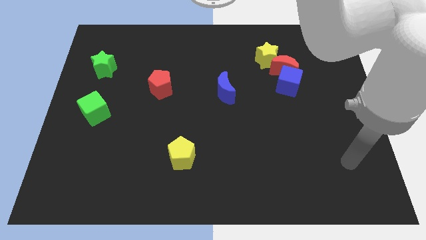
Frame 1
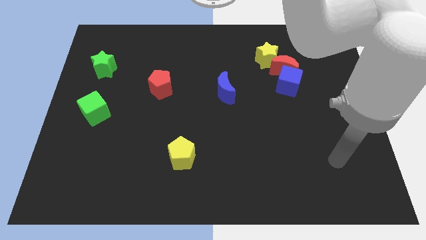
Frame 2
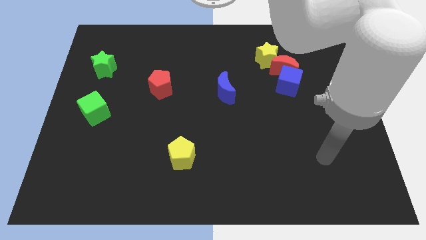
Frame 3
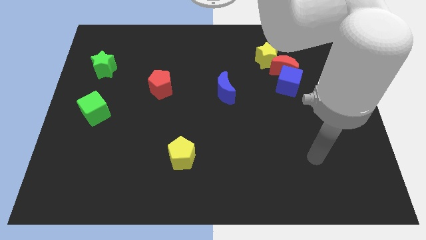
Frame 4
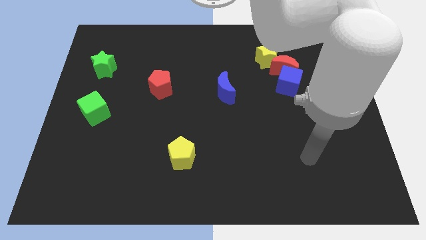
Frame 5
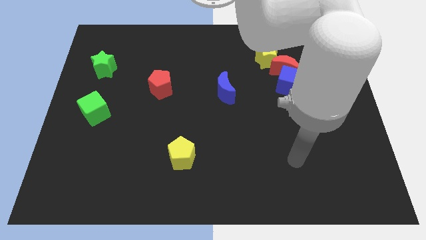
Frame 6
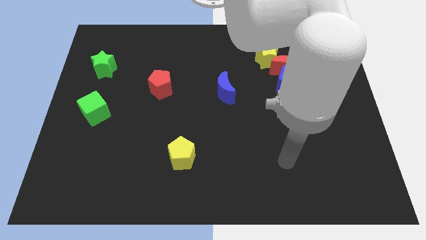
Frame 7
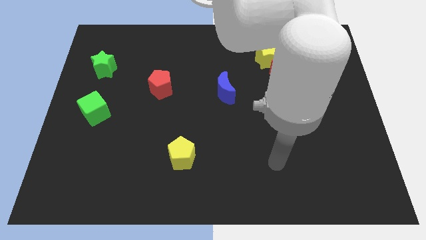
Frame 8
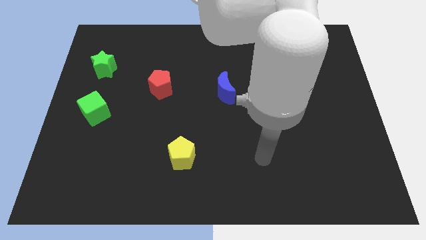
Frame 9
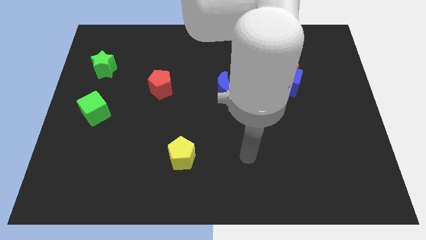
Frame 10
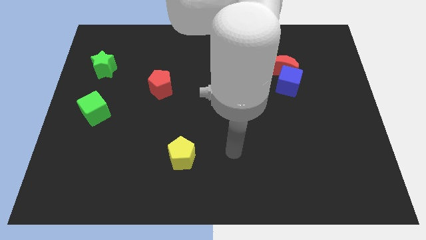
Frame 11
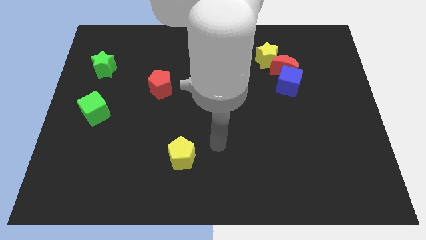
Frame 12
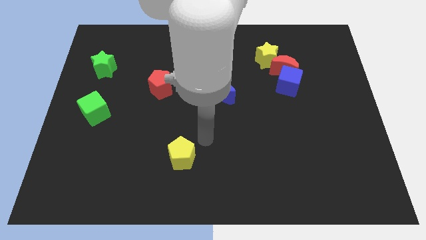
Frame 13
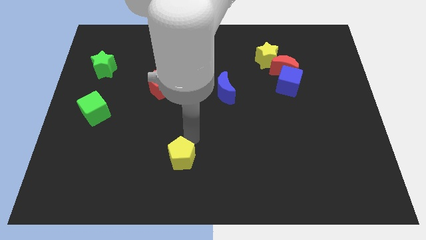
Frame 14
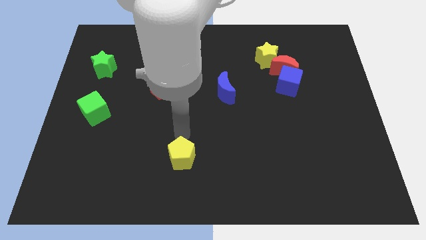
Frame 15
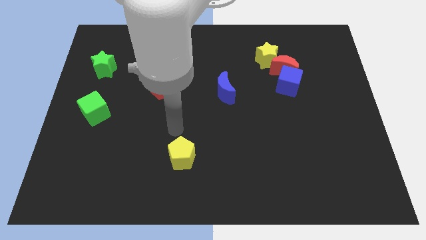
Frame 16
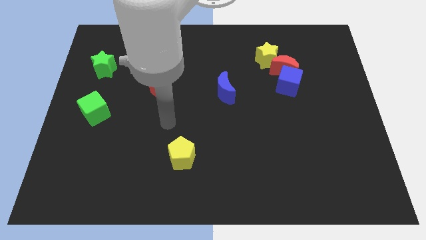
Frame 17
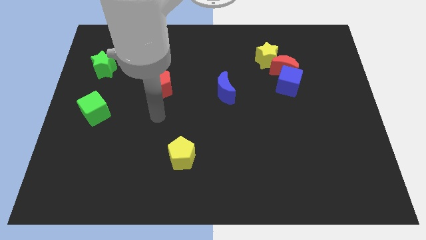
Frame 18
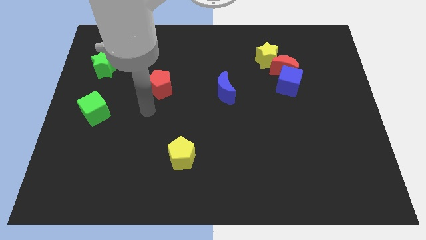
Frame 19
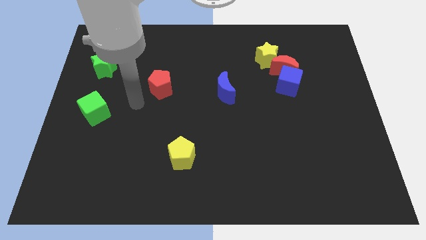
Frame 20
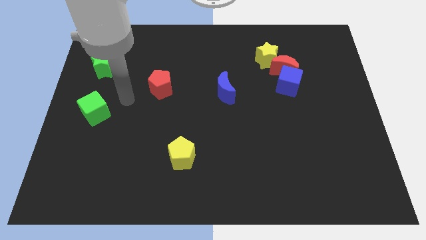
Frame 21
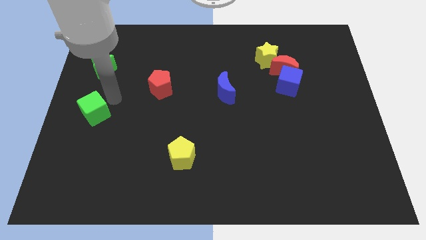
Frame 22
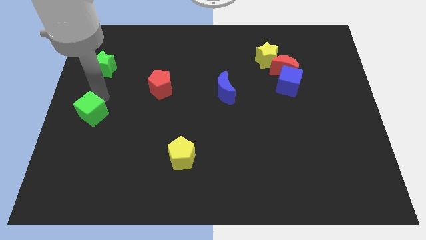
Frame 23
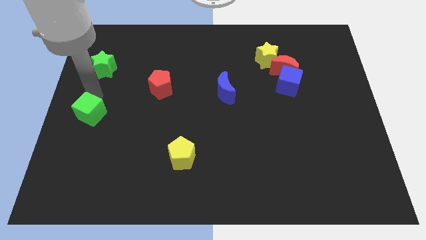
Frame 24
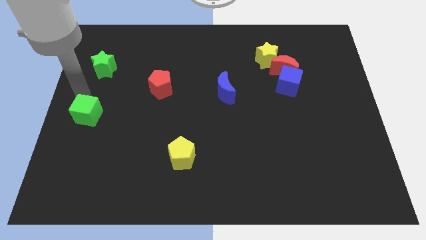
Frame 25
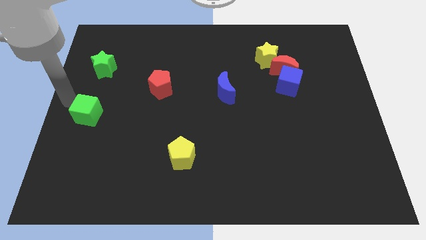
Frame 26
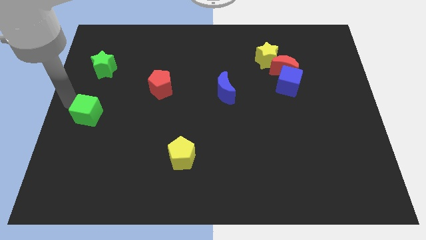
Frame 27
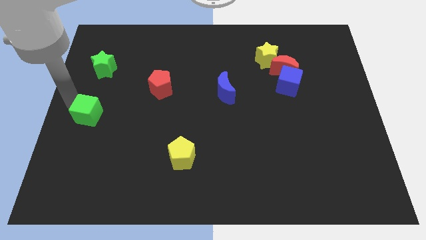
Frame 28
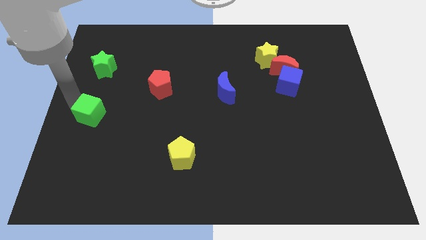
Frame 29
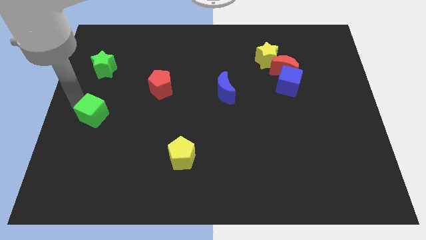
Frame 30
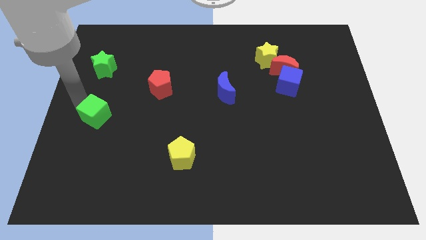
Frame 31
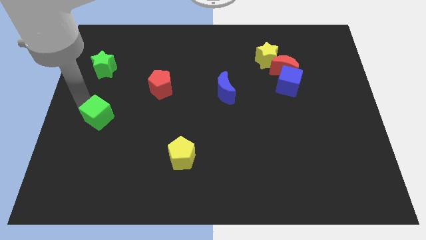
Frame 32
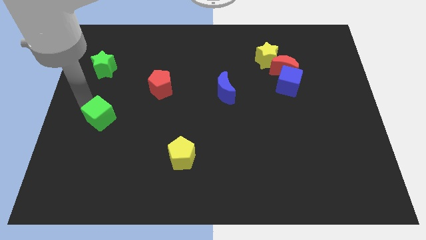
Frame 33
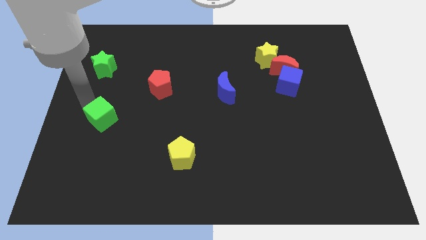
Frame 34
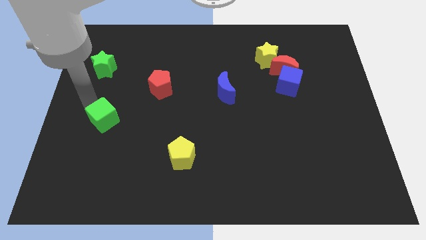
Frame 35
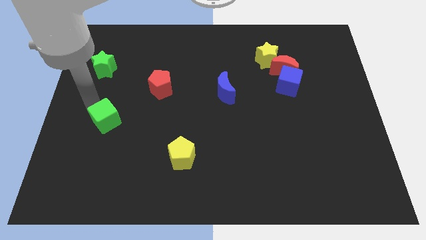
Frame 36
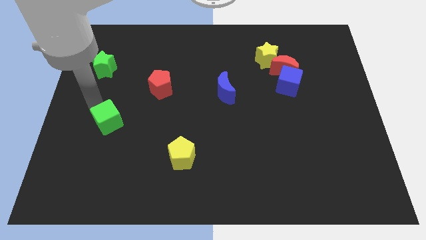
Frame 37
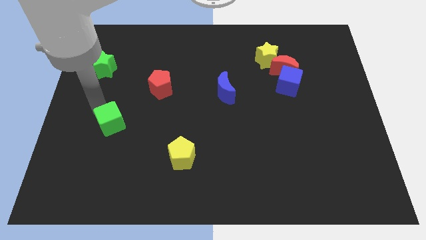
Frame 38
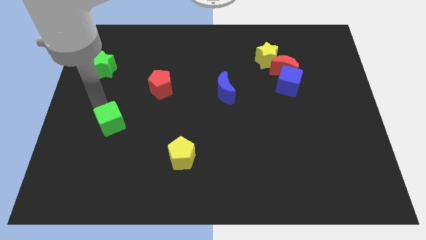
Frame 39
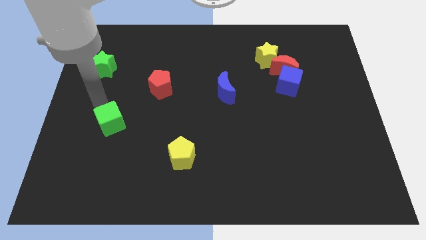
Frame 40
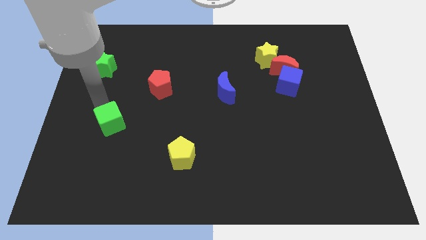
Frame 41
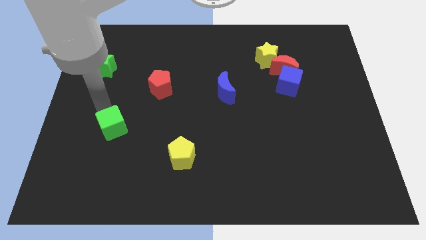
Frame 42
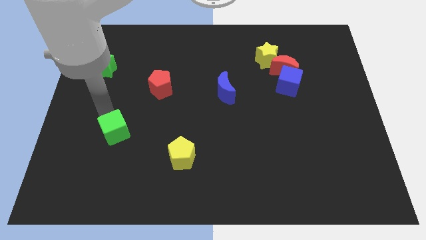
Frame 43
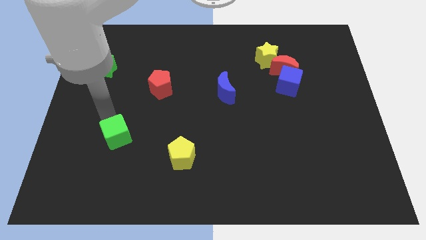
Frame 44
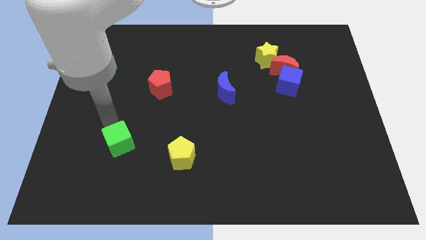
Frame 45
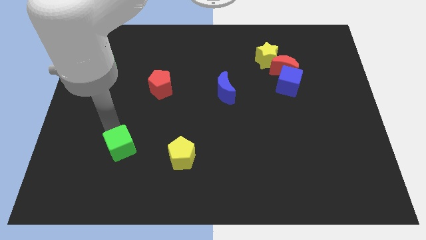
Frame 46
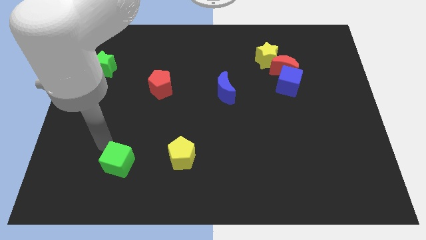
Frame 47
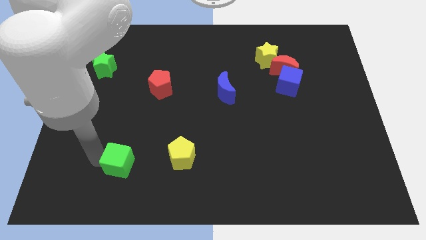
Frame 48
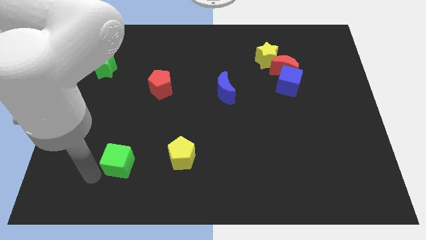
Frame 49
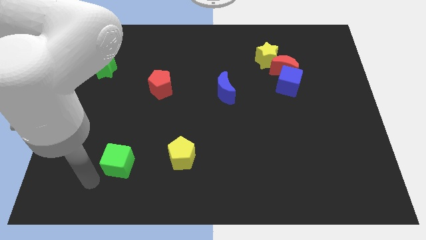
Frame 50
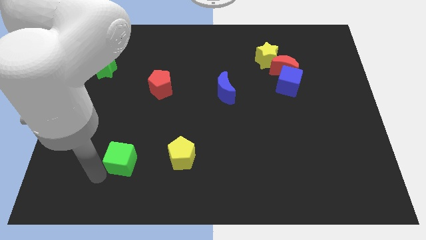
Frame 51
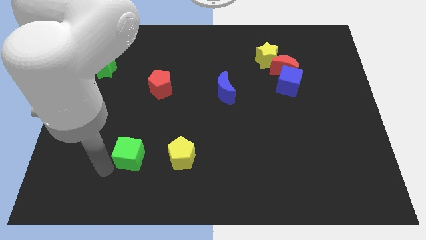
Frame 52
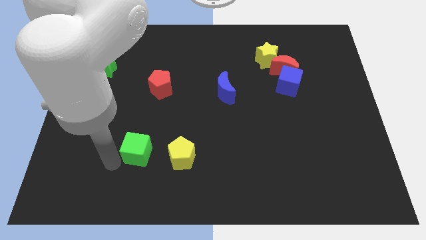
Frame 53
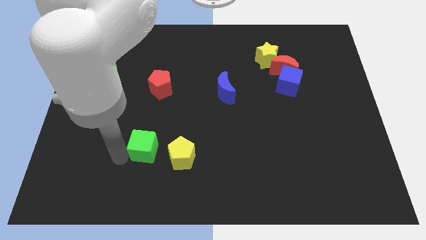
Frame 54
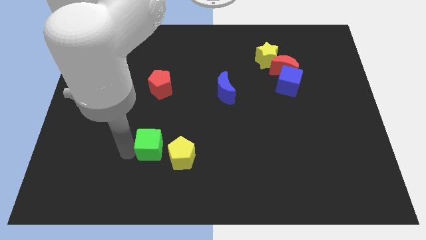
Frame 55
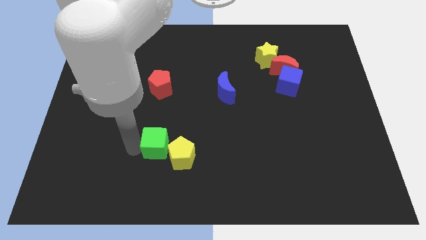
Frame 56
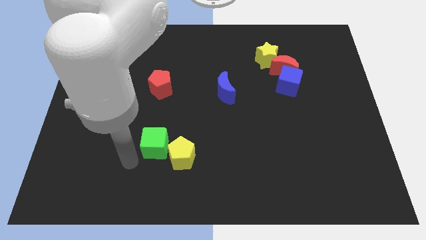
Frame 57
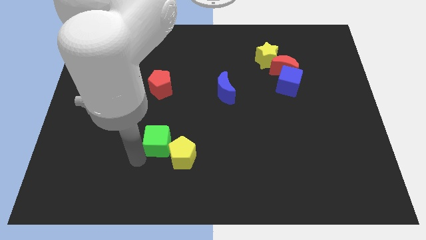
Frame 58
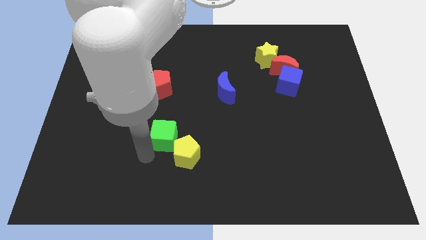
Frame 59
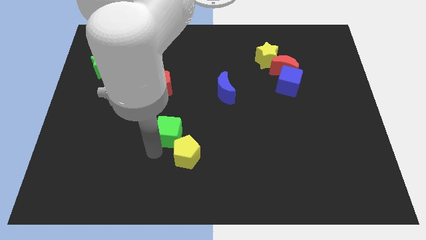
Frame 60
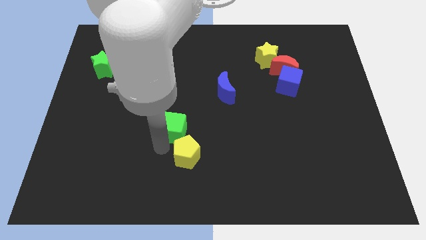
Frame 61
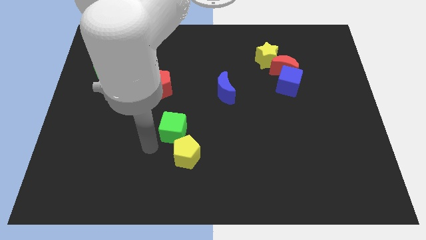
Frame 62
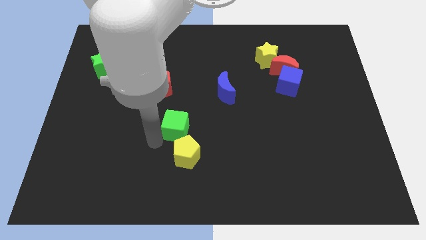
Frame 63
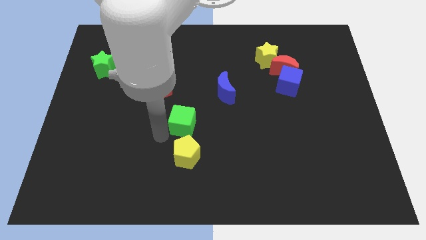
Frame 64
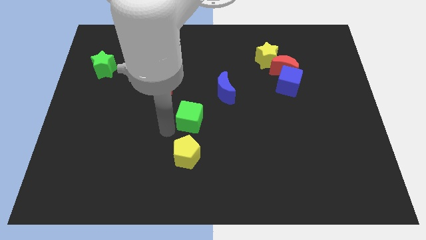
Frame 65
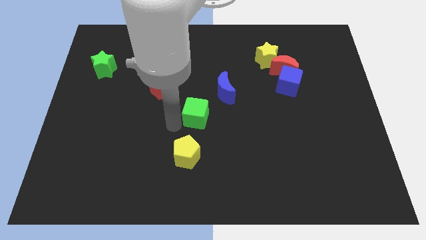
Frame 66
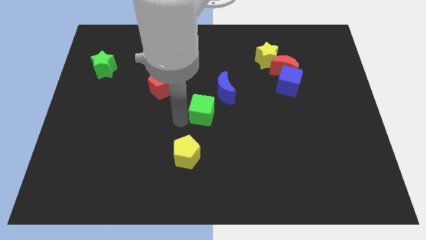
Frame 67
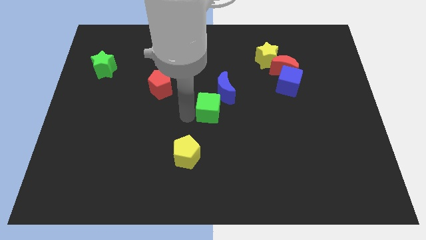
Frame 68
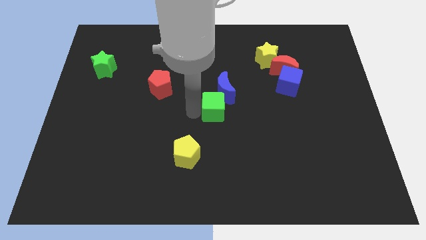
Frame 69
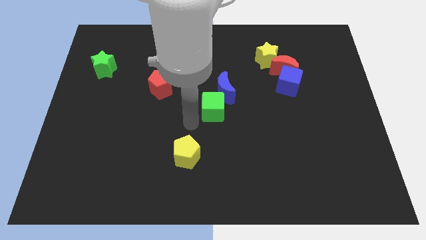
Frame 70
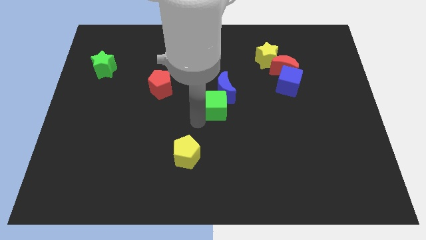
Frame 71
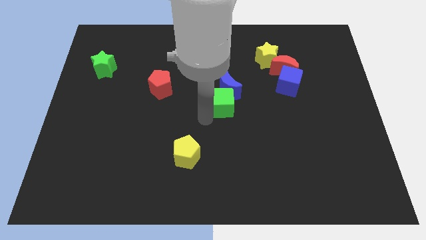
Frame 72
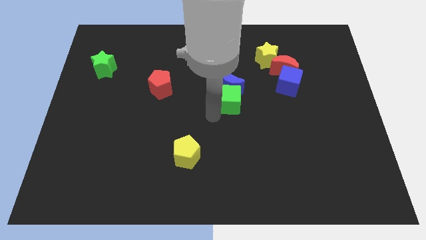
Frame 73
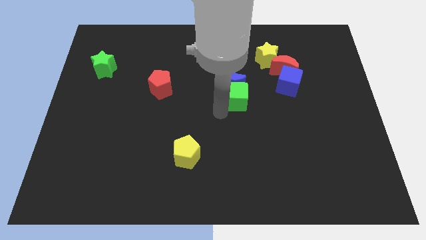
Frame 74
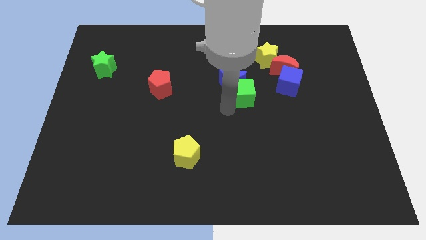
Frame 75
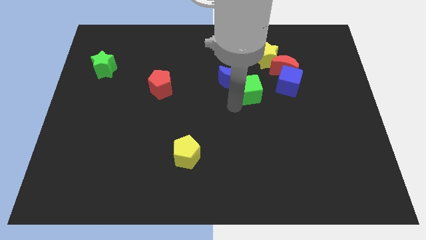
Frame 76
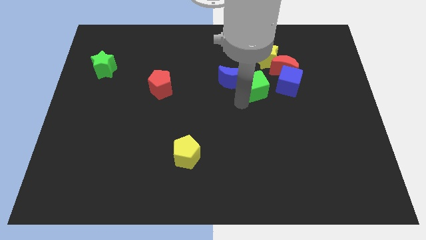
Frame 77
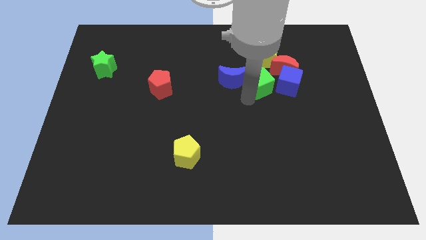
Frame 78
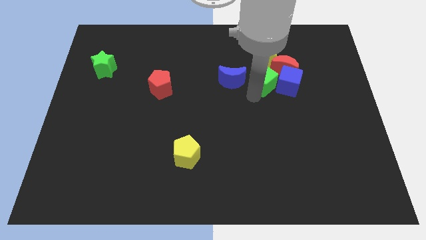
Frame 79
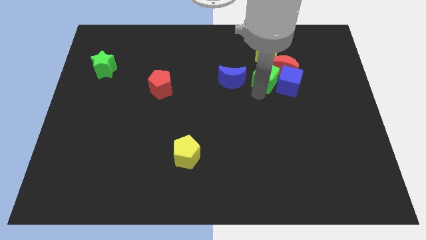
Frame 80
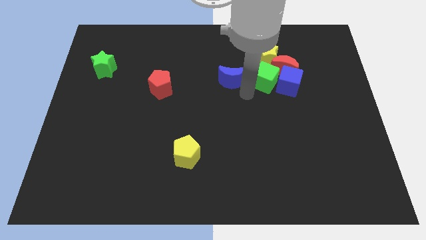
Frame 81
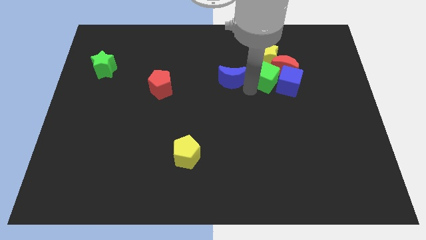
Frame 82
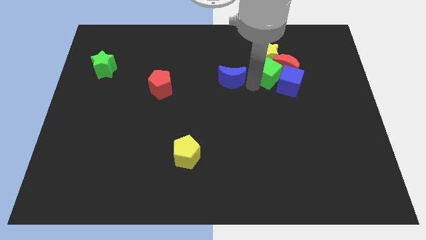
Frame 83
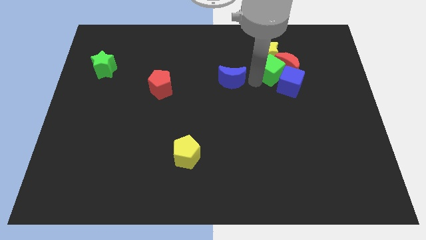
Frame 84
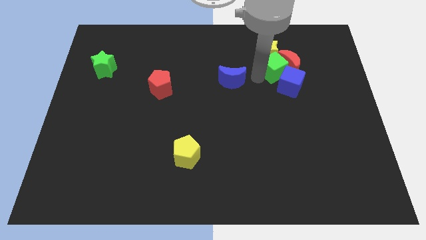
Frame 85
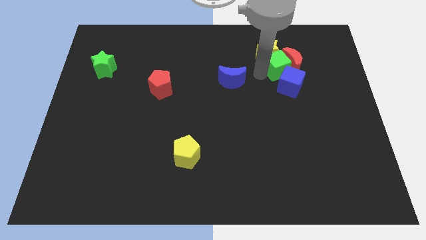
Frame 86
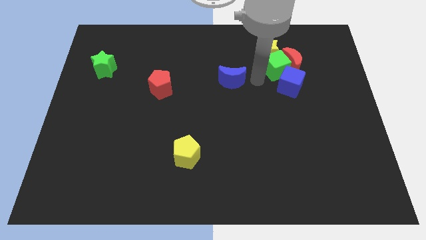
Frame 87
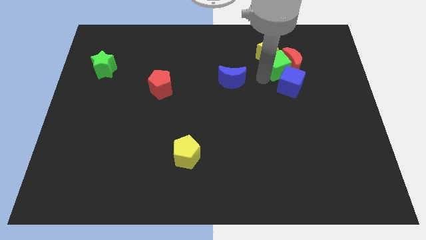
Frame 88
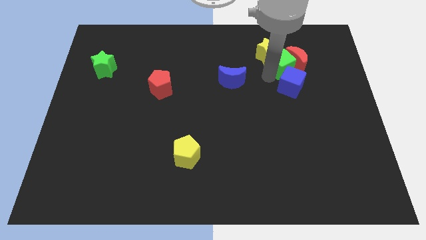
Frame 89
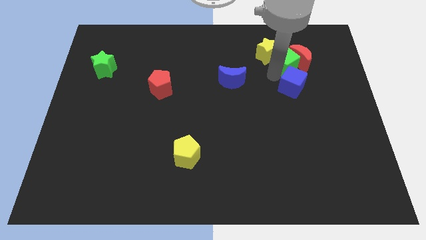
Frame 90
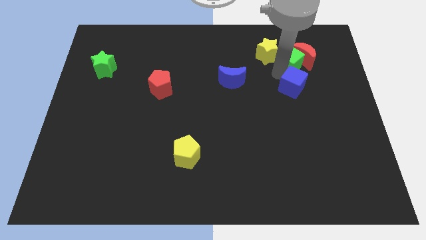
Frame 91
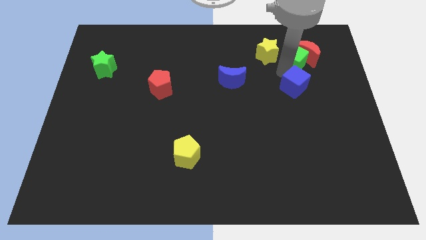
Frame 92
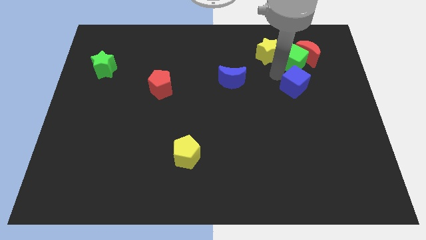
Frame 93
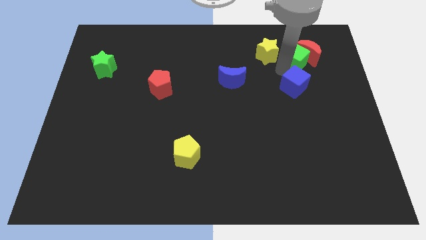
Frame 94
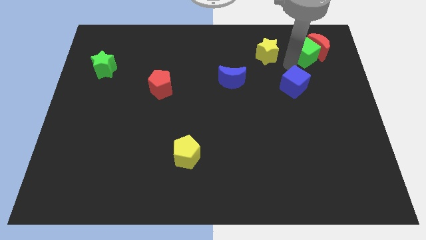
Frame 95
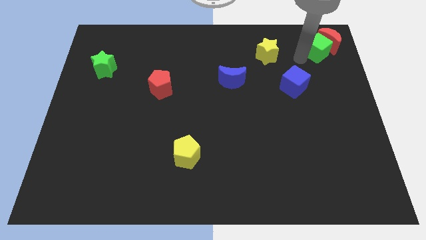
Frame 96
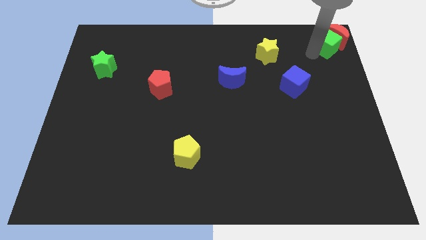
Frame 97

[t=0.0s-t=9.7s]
slide the green cube to the top right
